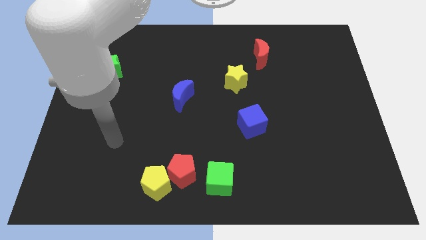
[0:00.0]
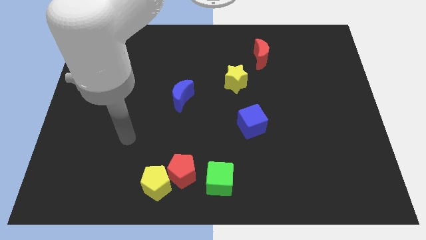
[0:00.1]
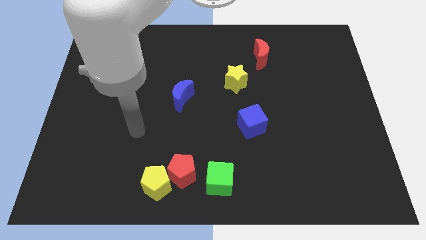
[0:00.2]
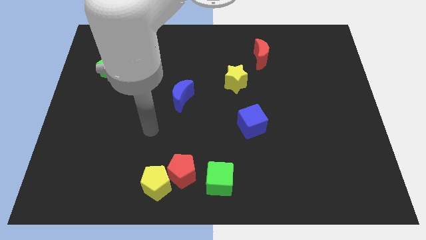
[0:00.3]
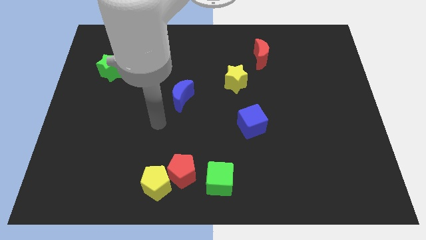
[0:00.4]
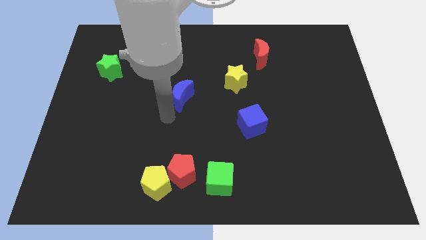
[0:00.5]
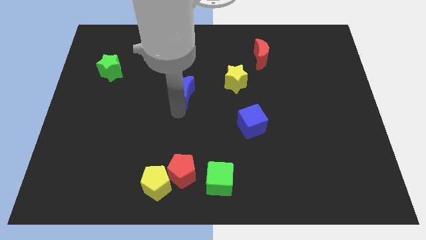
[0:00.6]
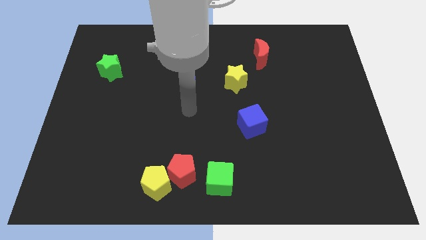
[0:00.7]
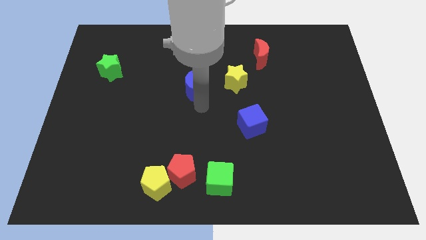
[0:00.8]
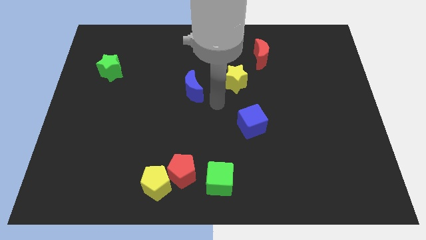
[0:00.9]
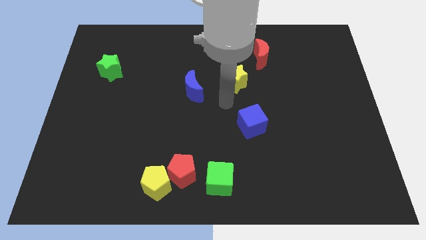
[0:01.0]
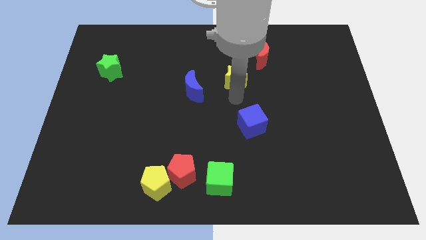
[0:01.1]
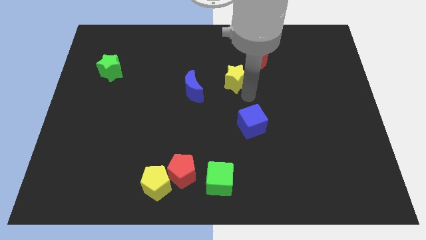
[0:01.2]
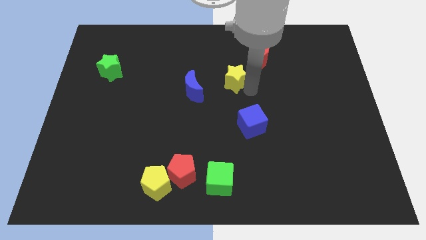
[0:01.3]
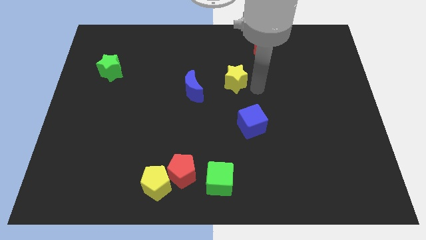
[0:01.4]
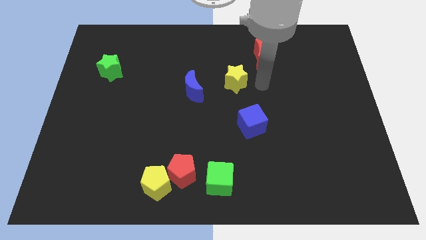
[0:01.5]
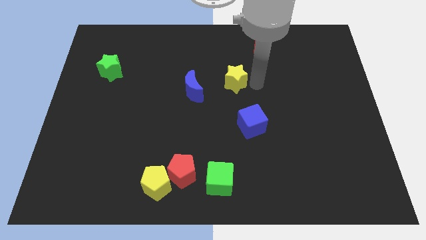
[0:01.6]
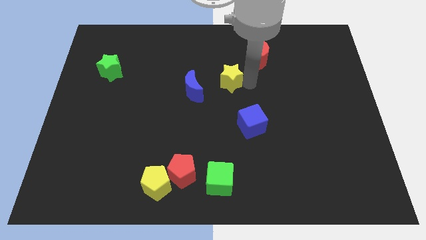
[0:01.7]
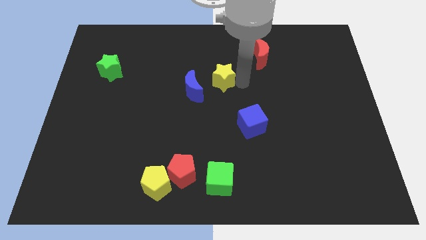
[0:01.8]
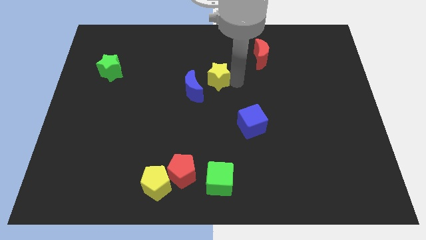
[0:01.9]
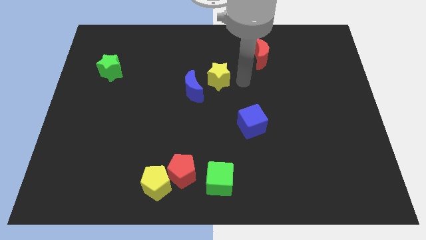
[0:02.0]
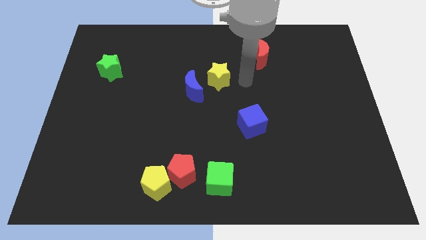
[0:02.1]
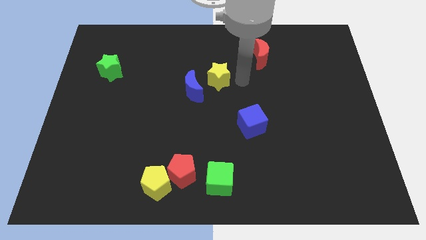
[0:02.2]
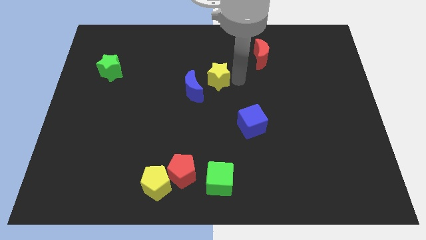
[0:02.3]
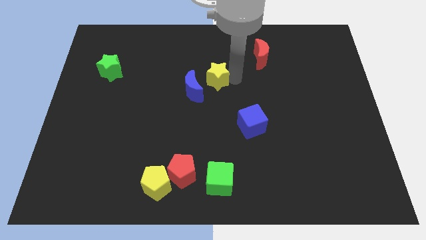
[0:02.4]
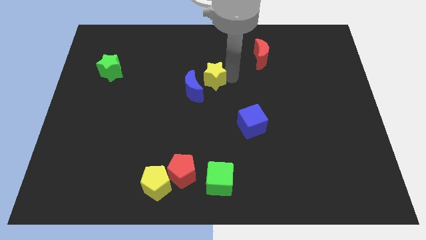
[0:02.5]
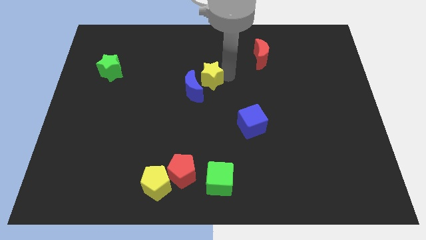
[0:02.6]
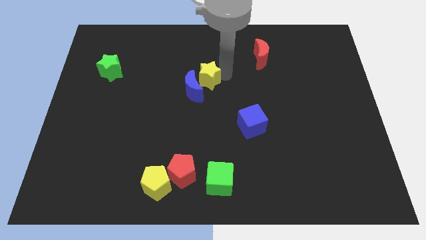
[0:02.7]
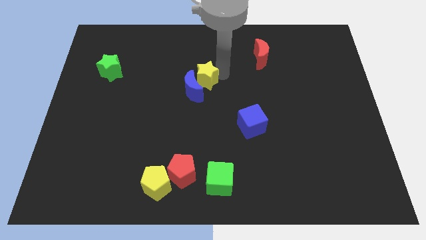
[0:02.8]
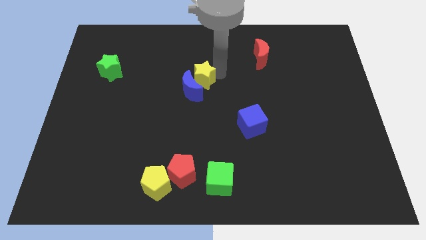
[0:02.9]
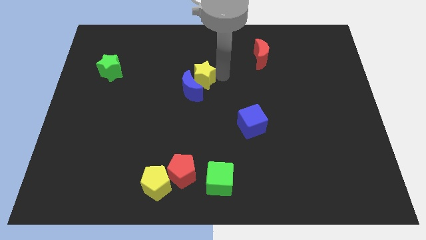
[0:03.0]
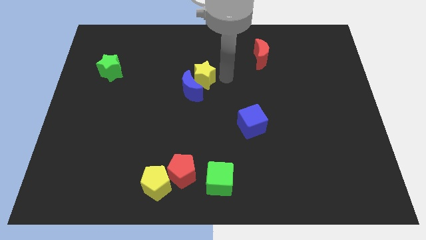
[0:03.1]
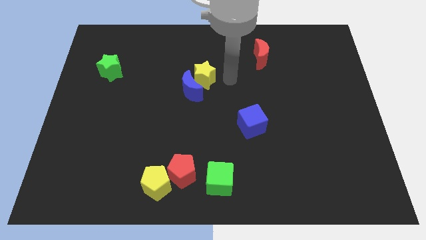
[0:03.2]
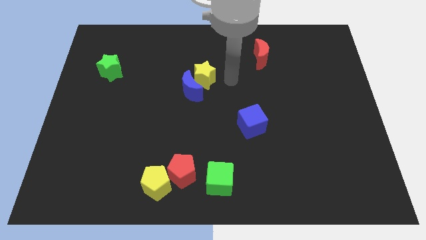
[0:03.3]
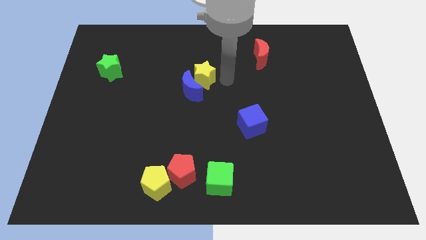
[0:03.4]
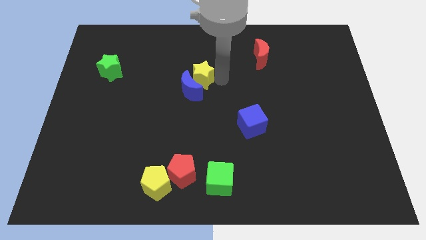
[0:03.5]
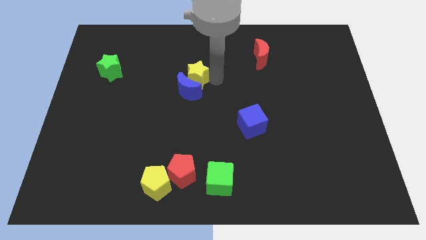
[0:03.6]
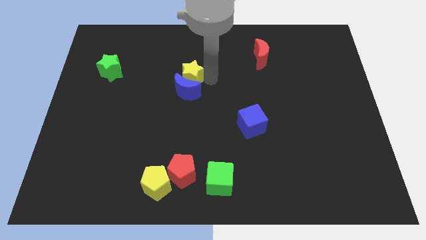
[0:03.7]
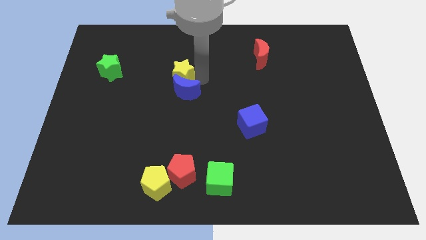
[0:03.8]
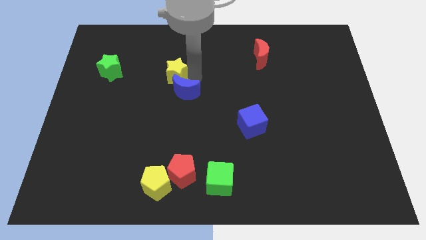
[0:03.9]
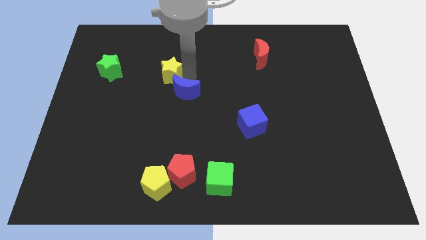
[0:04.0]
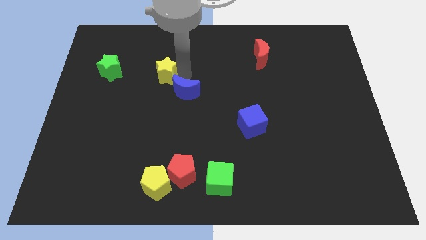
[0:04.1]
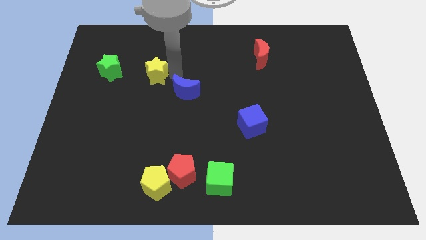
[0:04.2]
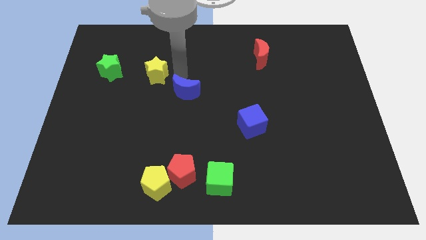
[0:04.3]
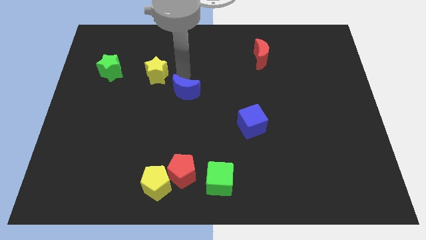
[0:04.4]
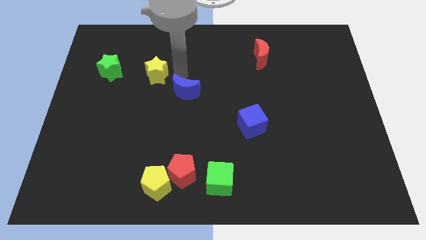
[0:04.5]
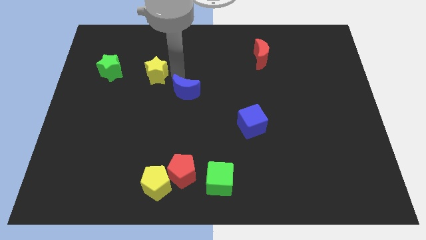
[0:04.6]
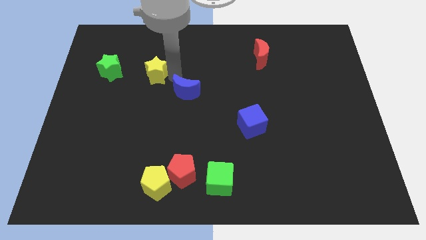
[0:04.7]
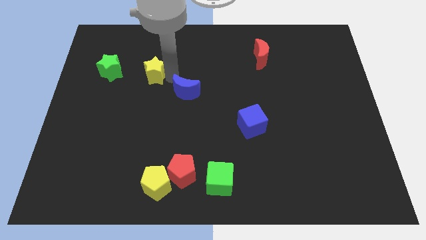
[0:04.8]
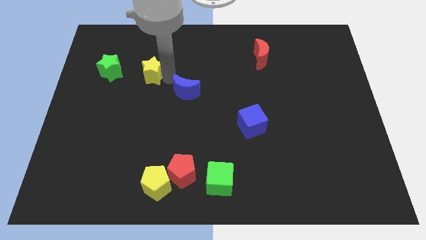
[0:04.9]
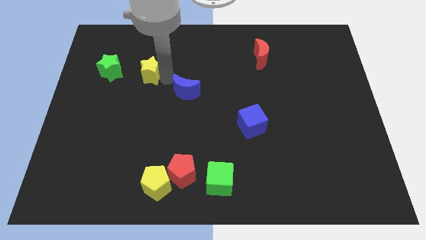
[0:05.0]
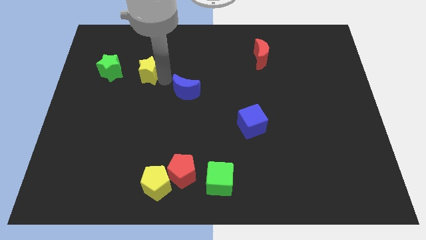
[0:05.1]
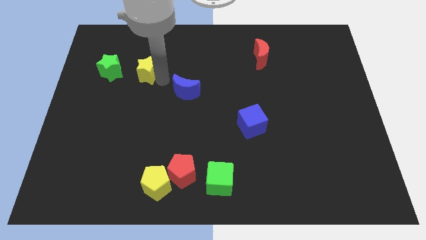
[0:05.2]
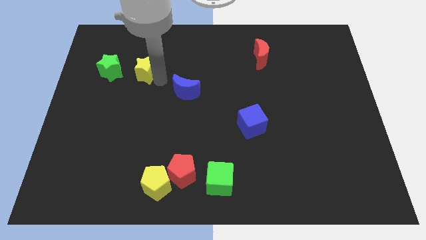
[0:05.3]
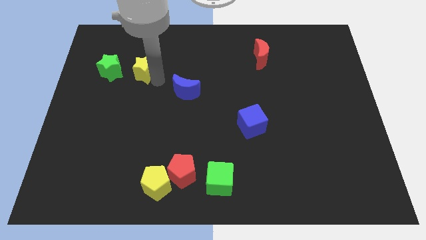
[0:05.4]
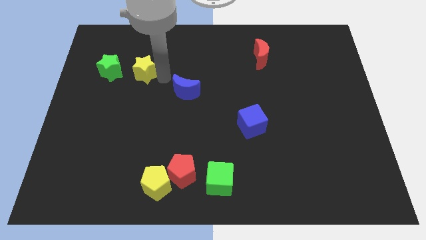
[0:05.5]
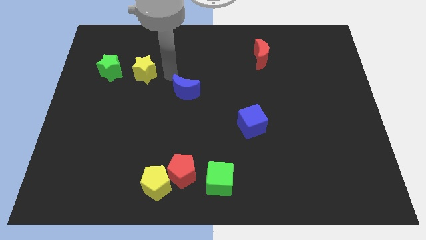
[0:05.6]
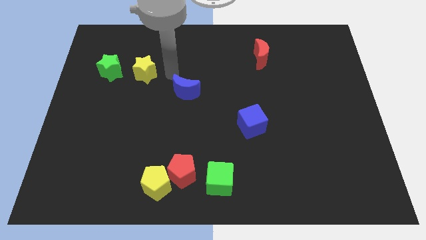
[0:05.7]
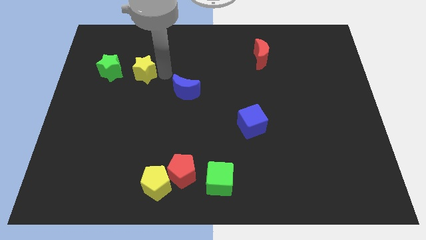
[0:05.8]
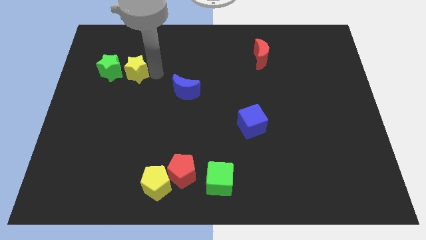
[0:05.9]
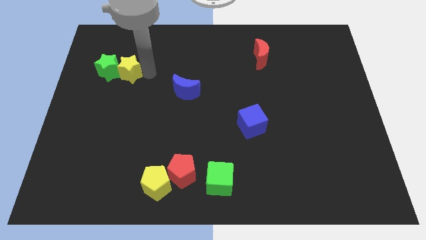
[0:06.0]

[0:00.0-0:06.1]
put the yellow star to the green star

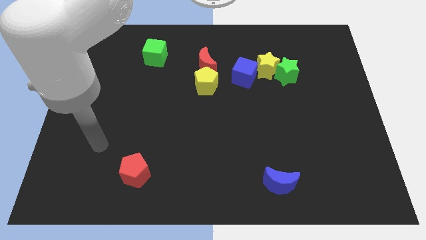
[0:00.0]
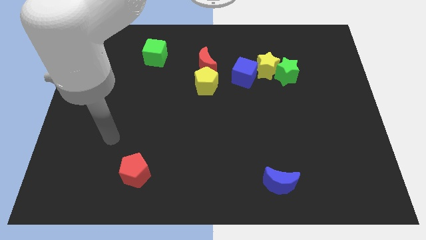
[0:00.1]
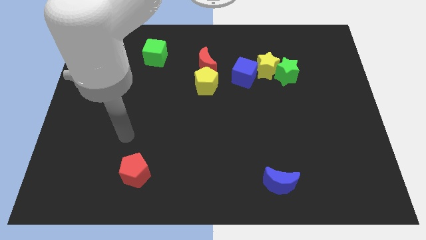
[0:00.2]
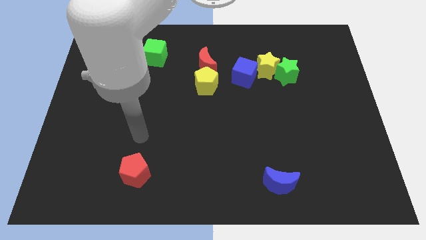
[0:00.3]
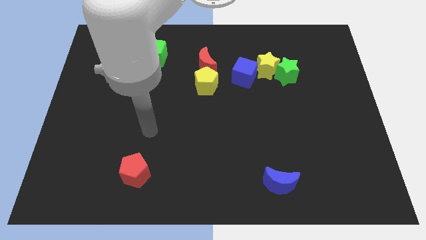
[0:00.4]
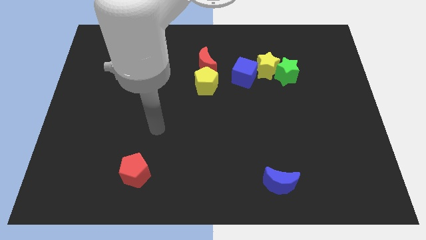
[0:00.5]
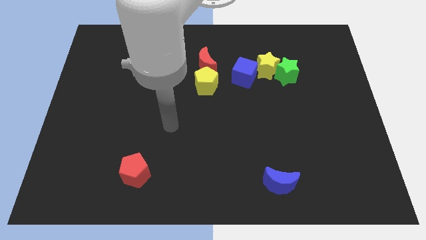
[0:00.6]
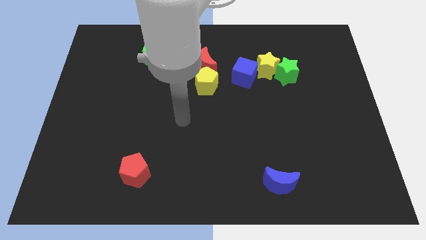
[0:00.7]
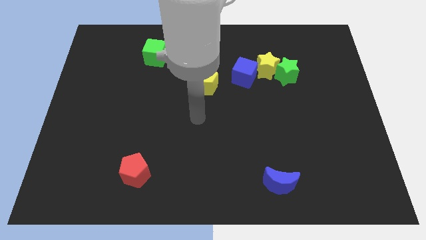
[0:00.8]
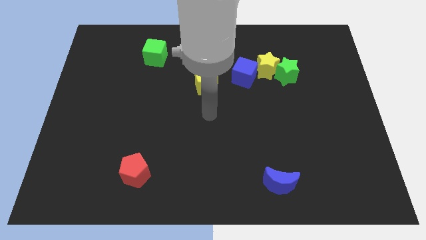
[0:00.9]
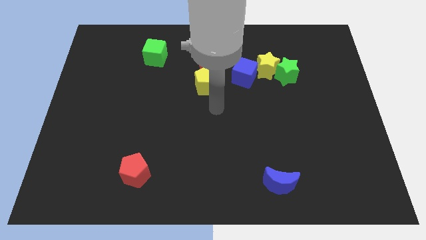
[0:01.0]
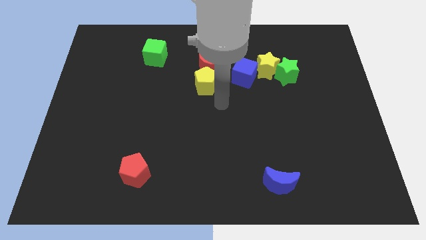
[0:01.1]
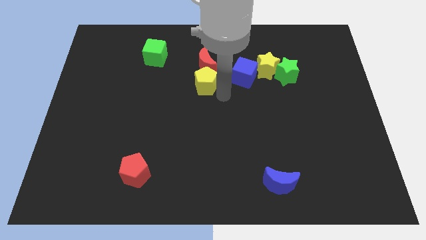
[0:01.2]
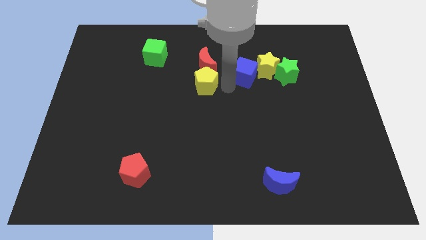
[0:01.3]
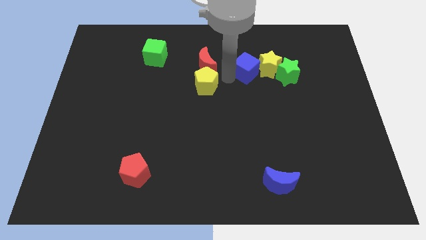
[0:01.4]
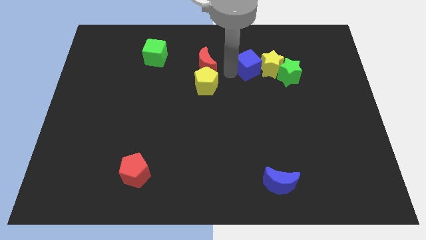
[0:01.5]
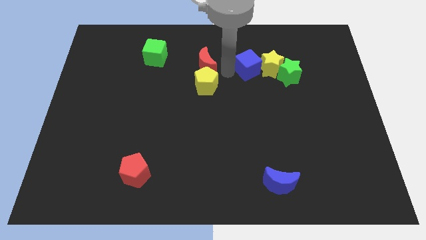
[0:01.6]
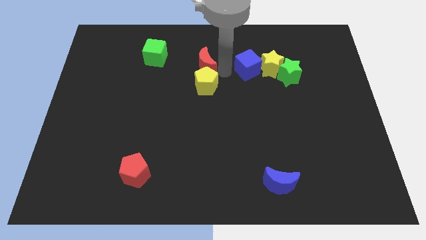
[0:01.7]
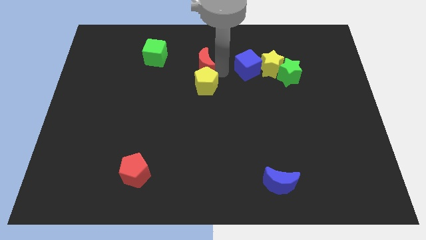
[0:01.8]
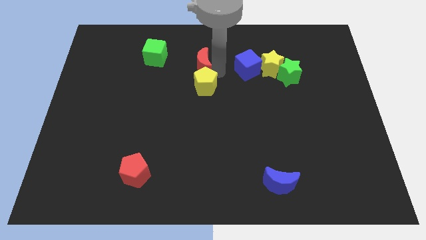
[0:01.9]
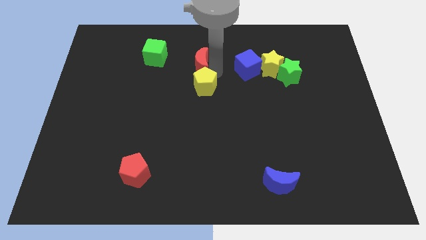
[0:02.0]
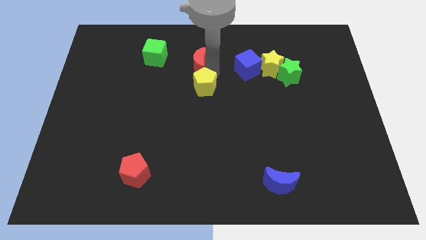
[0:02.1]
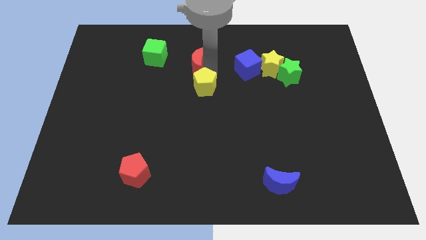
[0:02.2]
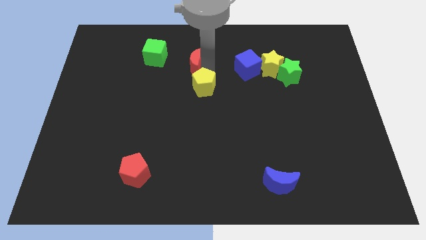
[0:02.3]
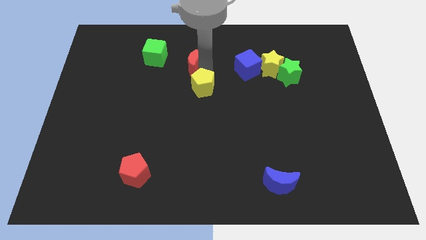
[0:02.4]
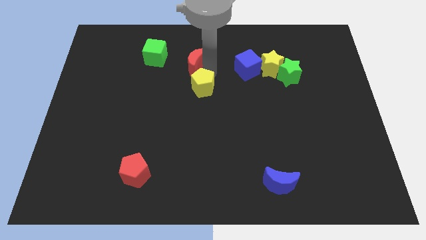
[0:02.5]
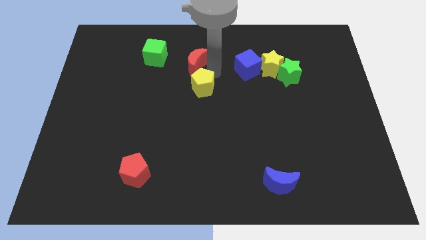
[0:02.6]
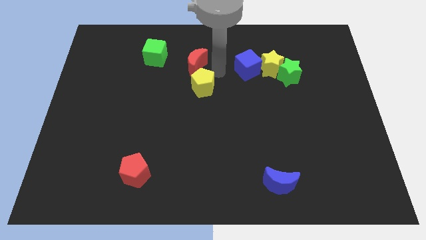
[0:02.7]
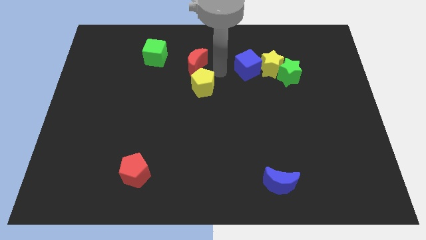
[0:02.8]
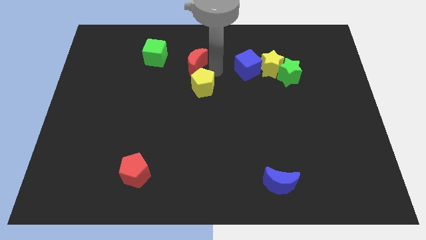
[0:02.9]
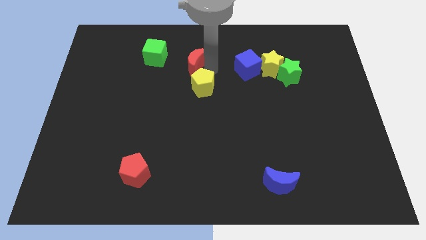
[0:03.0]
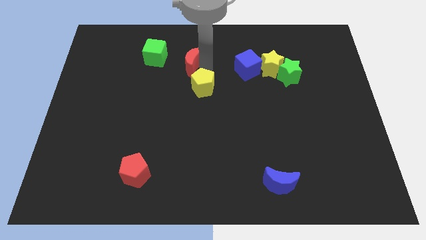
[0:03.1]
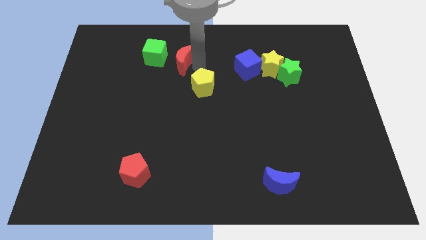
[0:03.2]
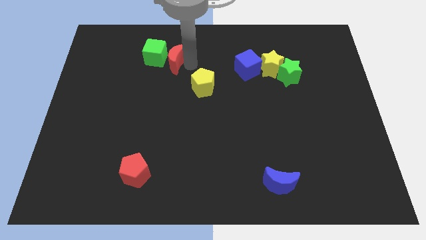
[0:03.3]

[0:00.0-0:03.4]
push the red moon close to the green cube
